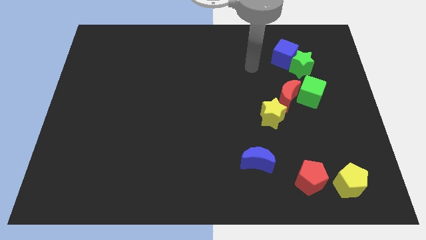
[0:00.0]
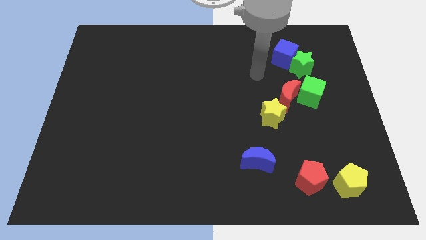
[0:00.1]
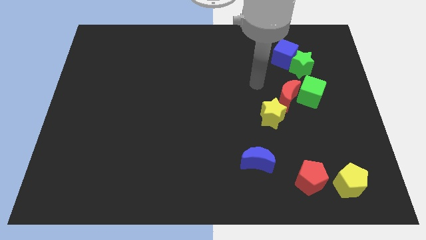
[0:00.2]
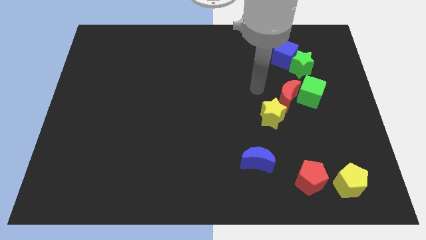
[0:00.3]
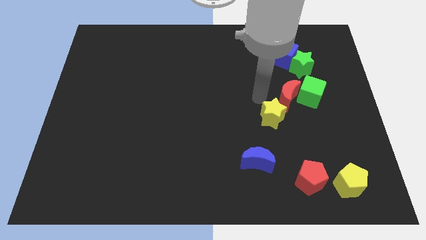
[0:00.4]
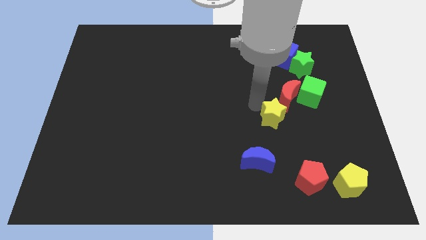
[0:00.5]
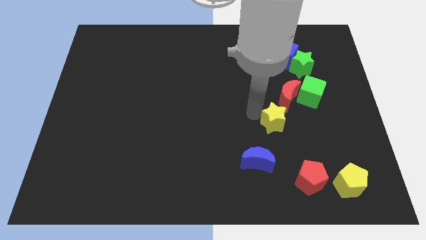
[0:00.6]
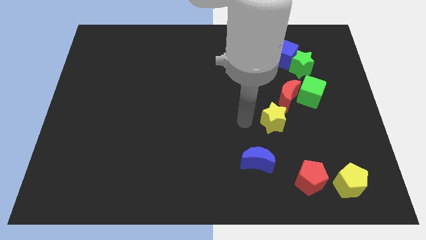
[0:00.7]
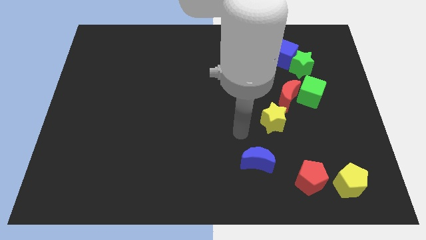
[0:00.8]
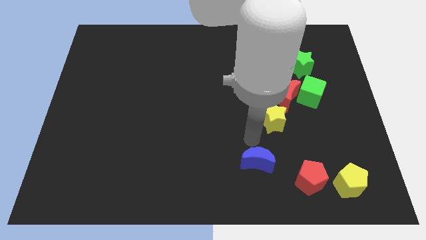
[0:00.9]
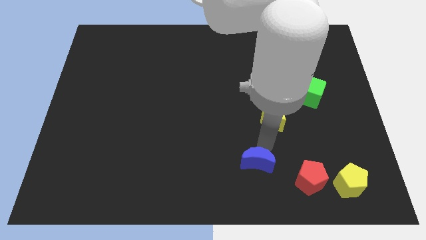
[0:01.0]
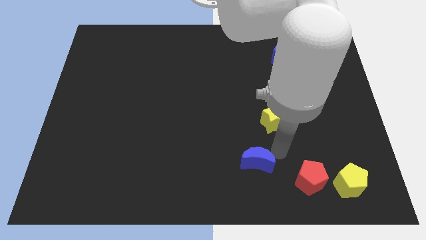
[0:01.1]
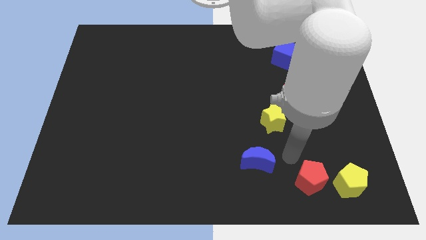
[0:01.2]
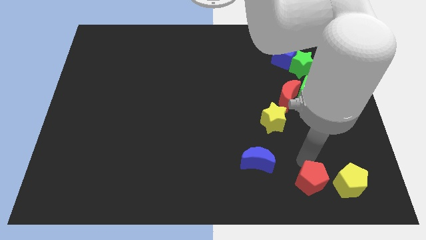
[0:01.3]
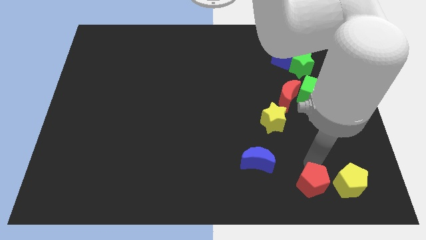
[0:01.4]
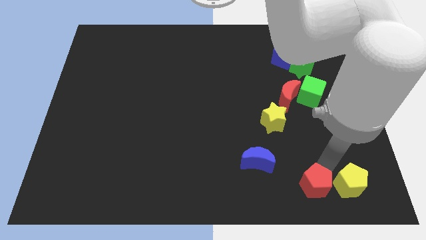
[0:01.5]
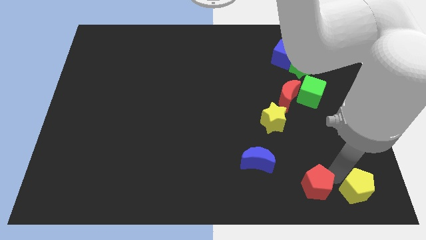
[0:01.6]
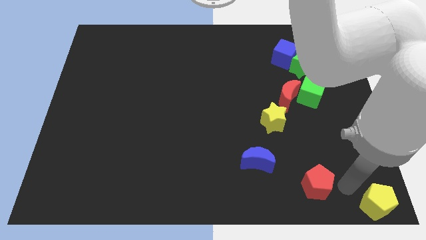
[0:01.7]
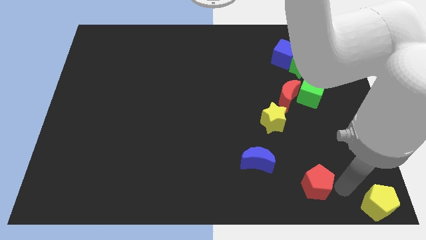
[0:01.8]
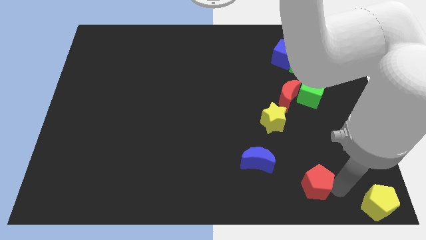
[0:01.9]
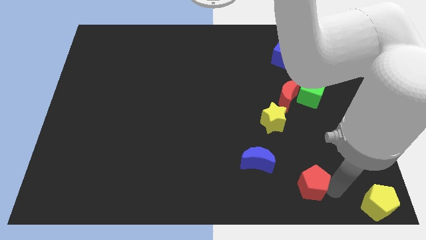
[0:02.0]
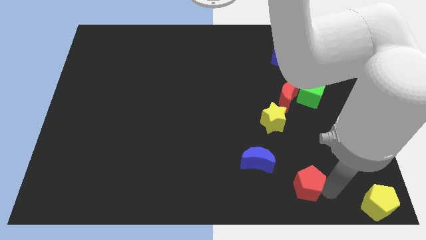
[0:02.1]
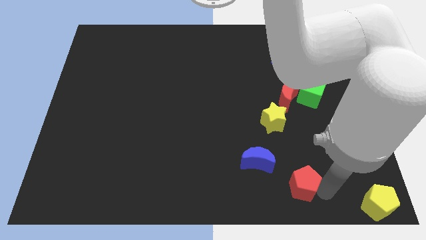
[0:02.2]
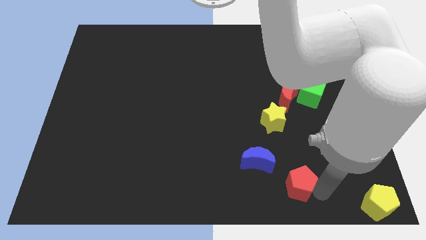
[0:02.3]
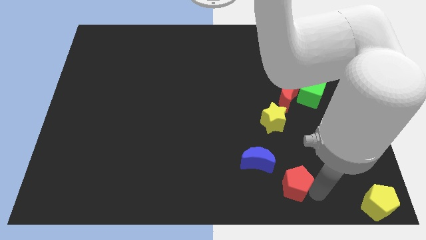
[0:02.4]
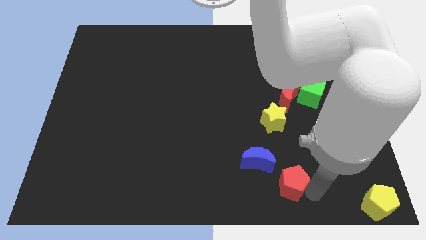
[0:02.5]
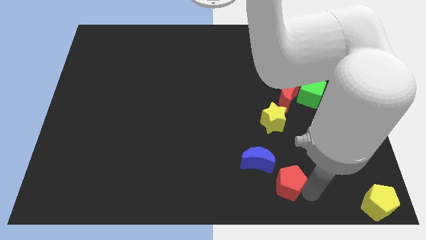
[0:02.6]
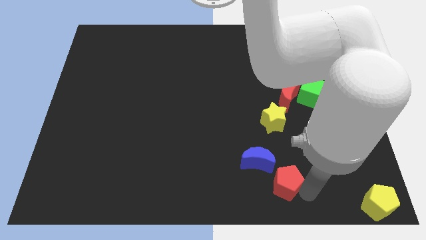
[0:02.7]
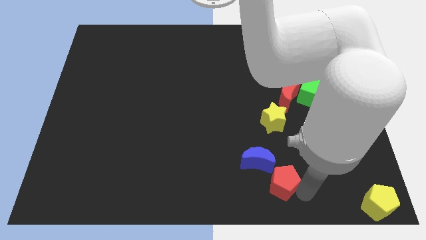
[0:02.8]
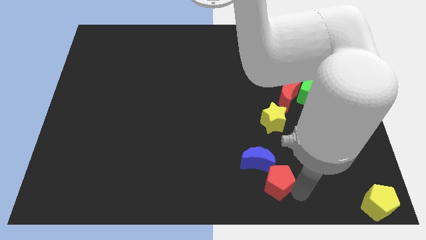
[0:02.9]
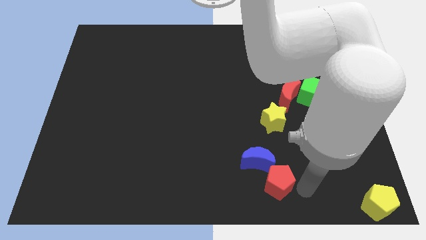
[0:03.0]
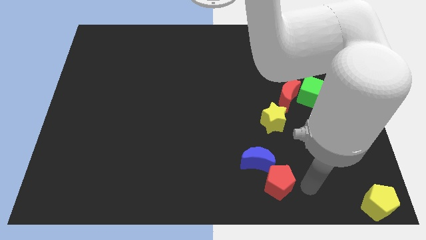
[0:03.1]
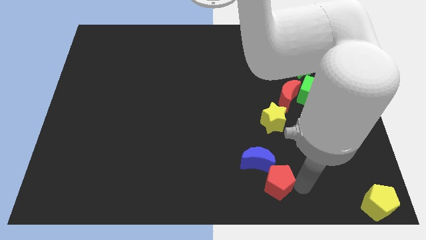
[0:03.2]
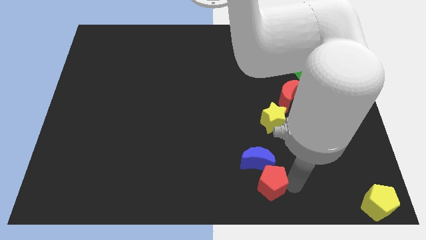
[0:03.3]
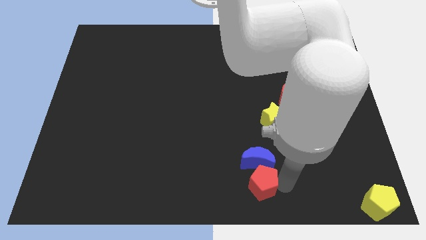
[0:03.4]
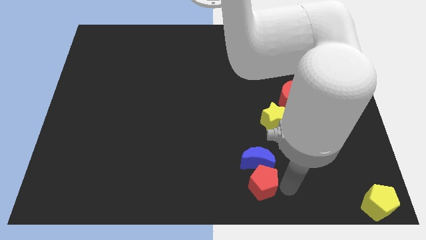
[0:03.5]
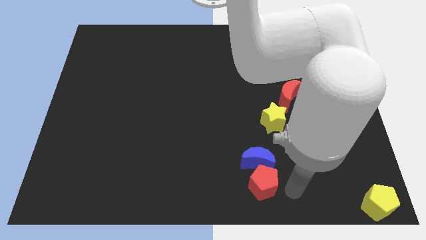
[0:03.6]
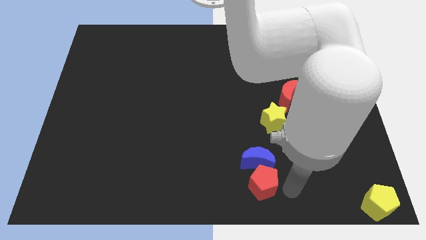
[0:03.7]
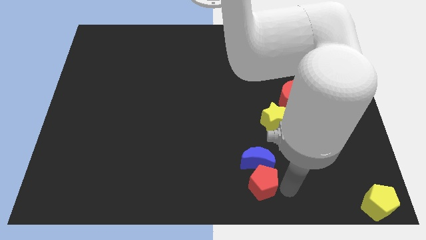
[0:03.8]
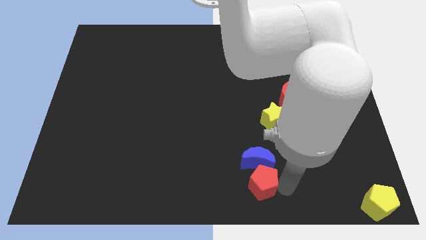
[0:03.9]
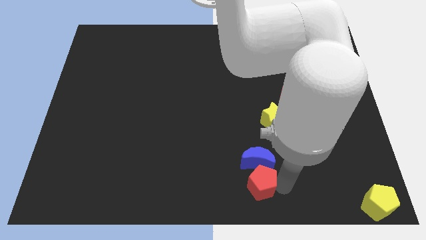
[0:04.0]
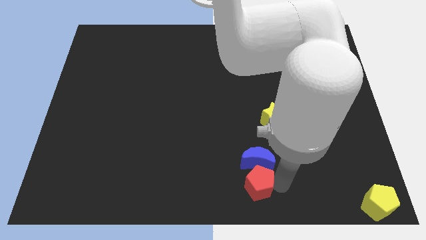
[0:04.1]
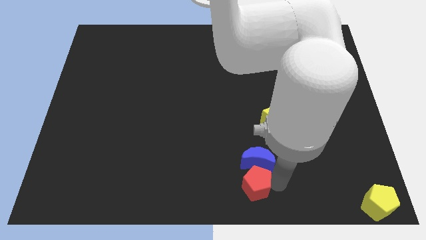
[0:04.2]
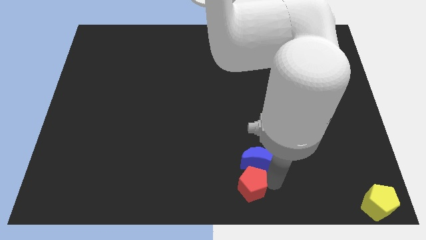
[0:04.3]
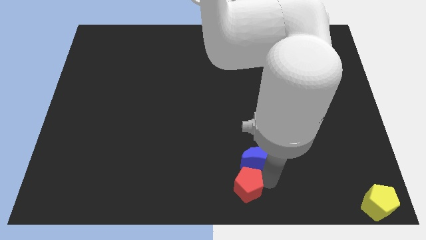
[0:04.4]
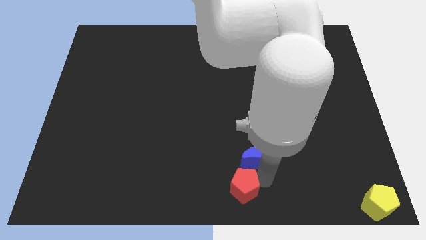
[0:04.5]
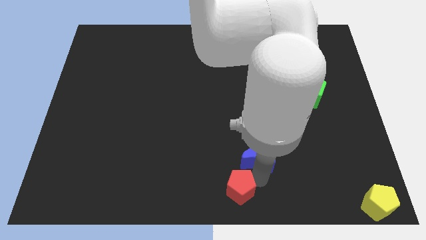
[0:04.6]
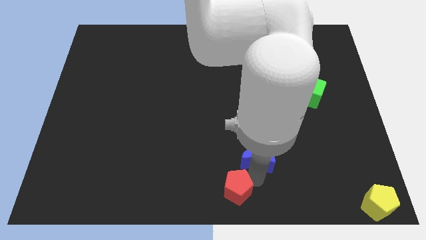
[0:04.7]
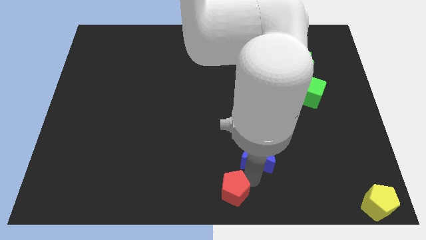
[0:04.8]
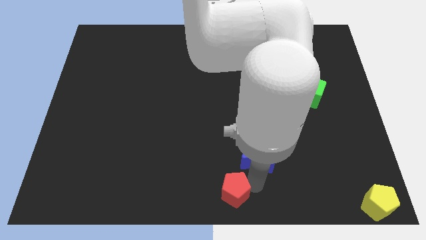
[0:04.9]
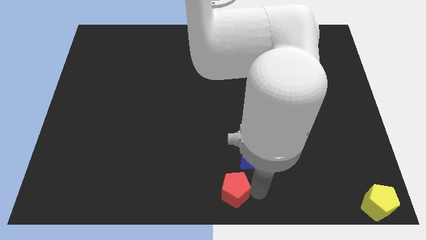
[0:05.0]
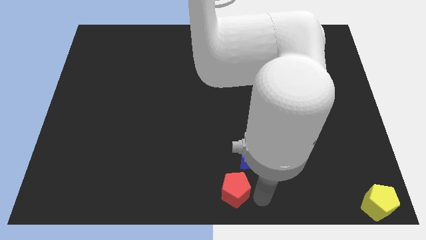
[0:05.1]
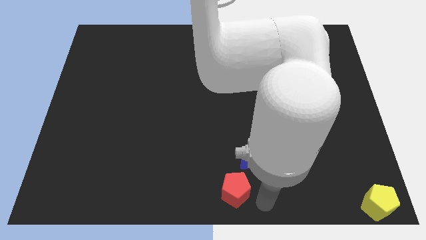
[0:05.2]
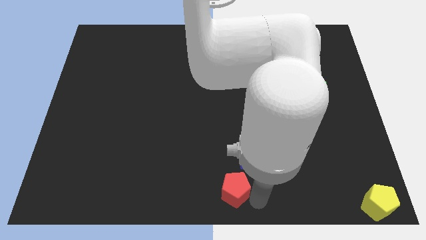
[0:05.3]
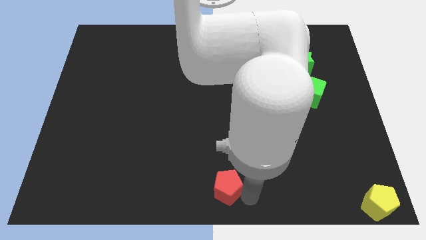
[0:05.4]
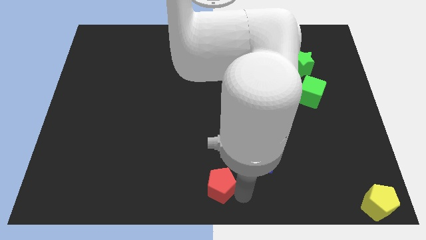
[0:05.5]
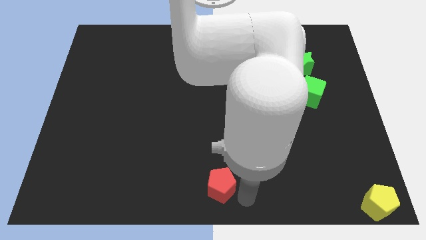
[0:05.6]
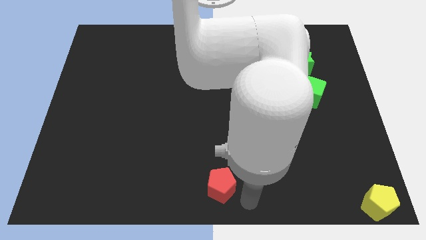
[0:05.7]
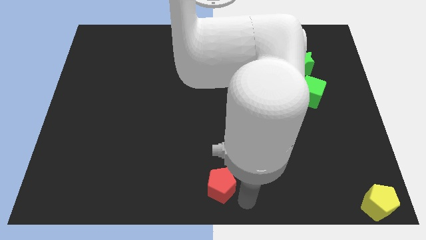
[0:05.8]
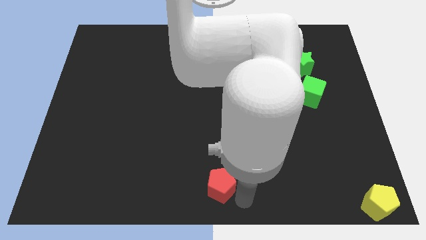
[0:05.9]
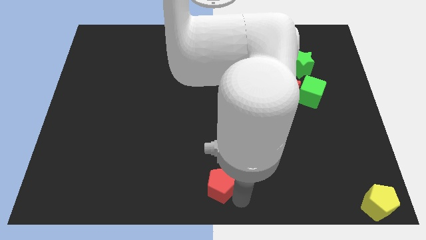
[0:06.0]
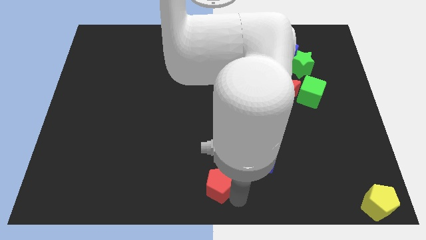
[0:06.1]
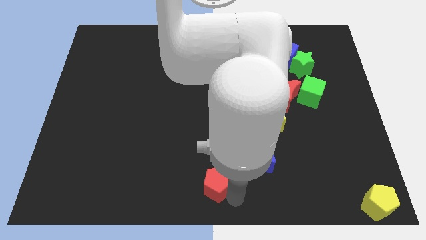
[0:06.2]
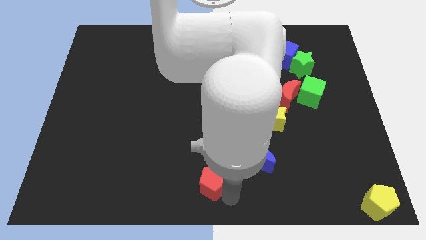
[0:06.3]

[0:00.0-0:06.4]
move the red pentagon left

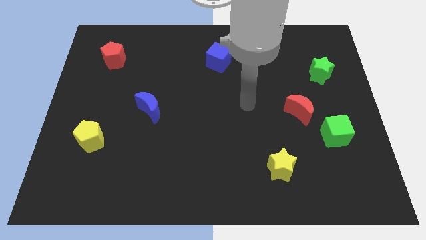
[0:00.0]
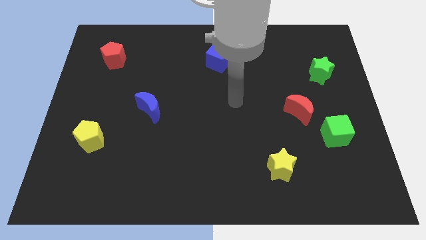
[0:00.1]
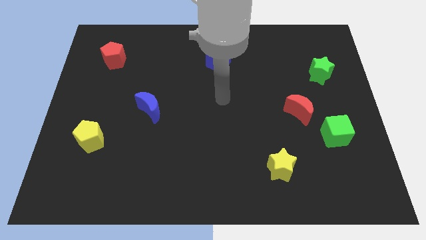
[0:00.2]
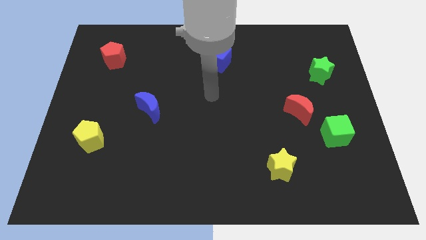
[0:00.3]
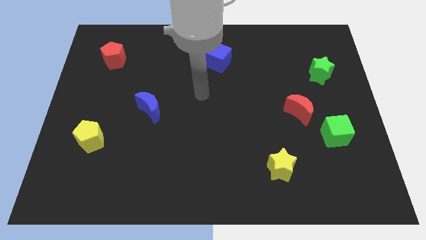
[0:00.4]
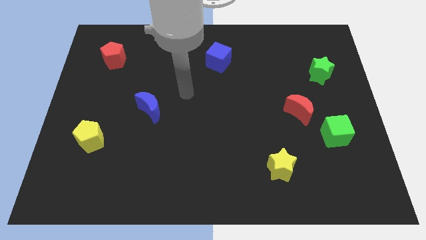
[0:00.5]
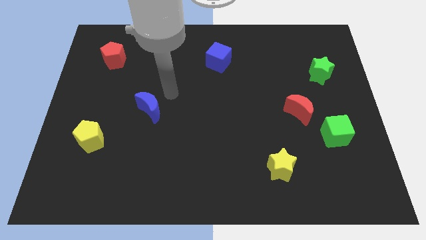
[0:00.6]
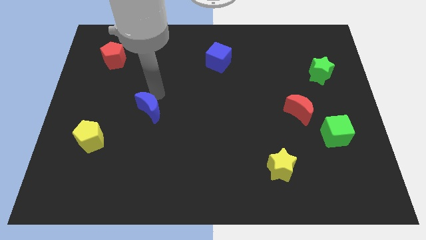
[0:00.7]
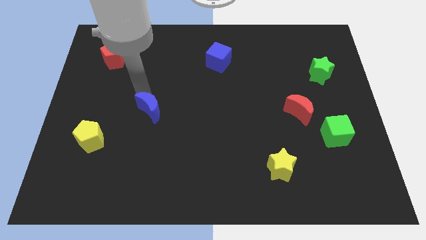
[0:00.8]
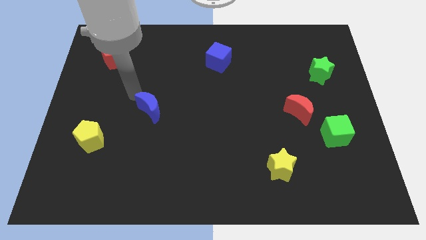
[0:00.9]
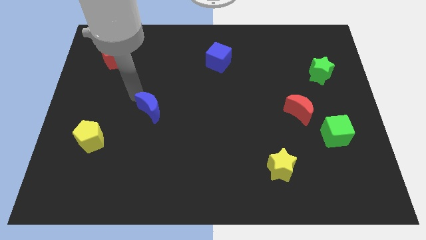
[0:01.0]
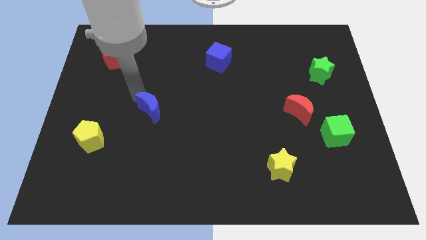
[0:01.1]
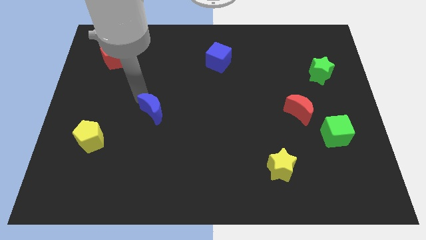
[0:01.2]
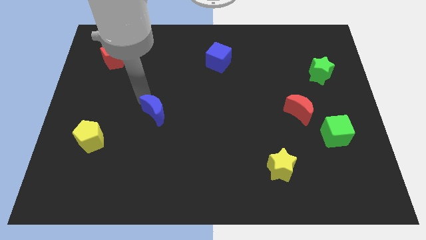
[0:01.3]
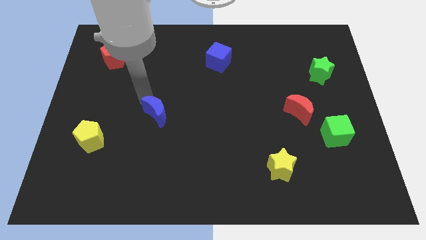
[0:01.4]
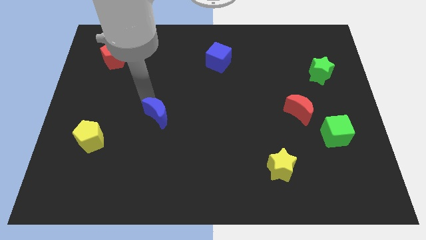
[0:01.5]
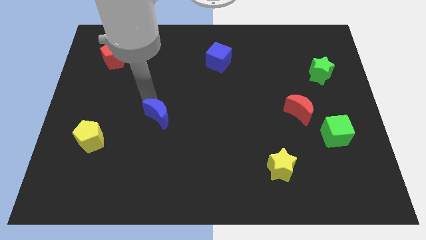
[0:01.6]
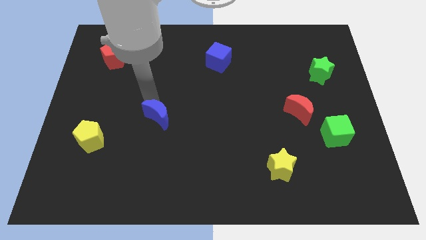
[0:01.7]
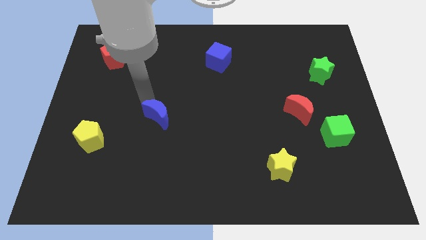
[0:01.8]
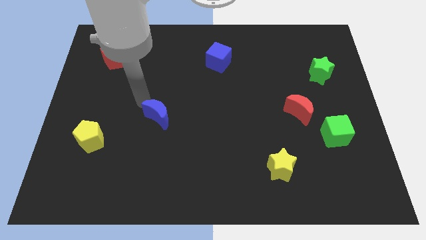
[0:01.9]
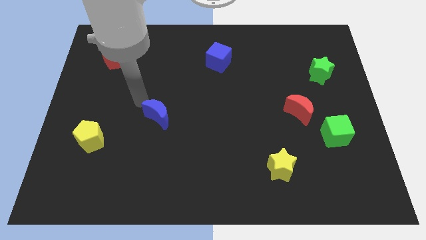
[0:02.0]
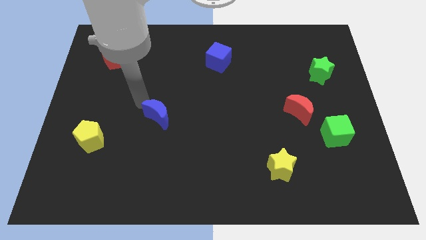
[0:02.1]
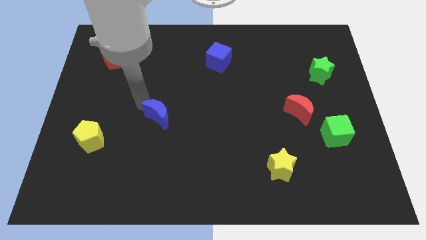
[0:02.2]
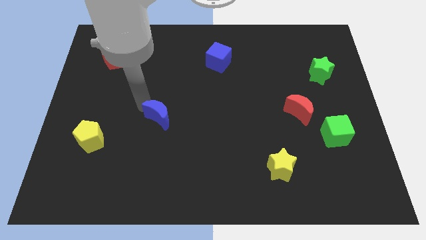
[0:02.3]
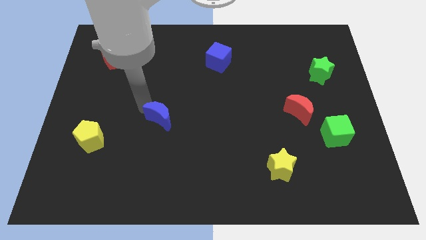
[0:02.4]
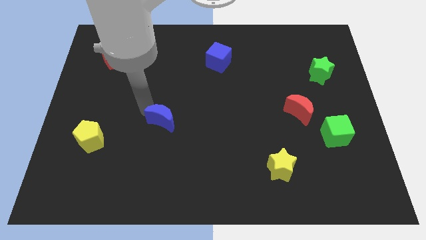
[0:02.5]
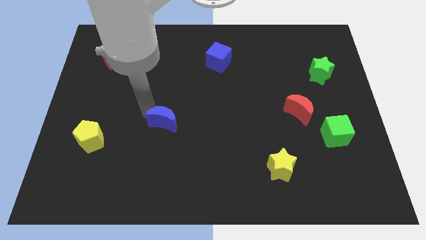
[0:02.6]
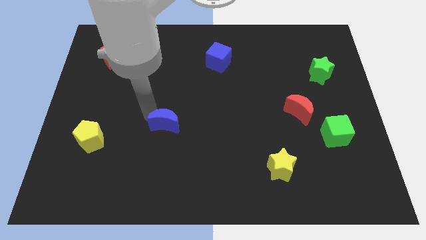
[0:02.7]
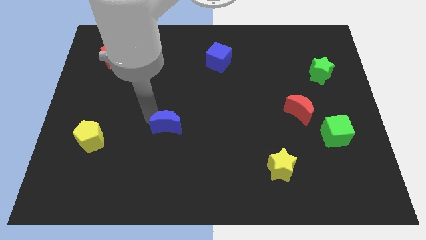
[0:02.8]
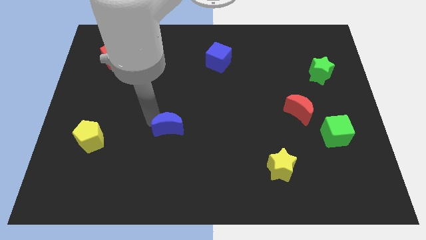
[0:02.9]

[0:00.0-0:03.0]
slightly move the blue moon down and right
